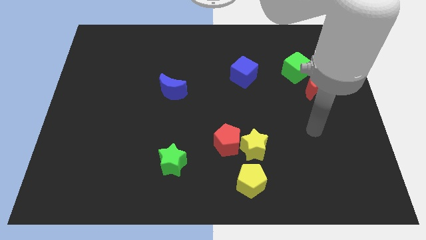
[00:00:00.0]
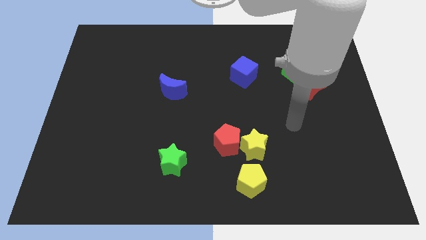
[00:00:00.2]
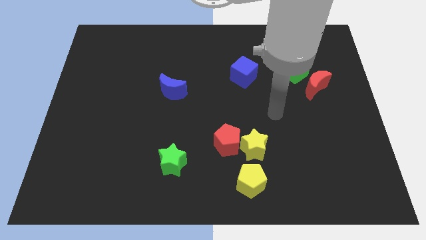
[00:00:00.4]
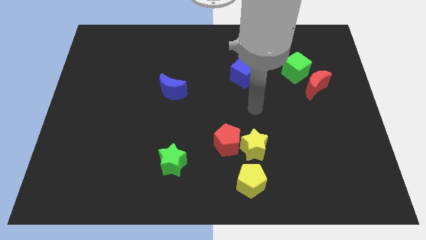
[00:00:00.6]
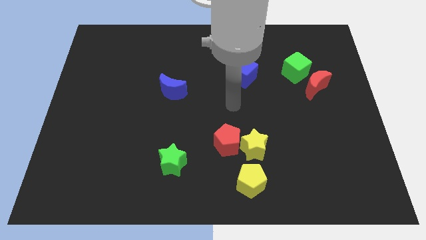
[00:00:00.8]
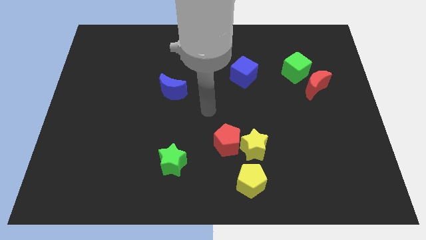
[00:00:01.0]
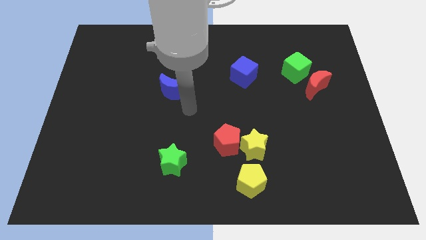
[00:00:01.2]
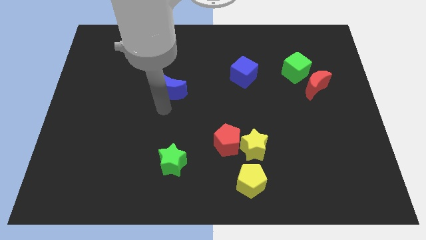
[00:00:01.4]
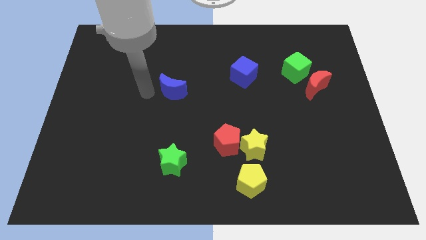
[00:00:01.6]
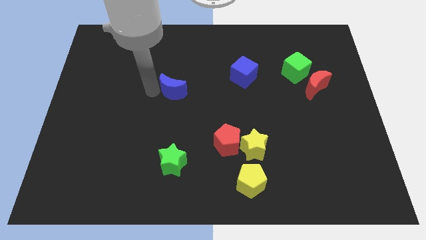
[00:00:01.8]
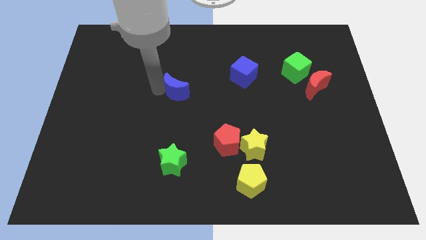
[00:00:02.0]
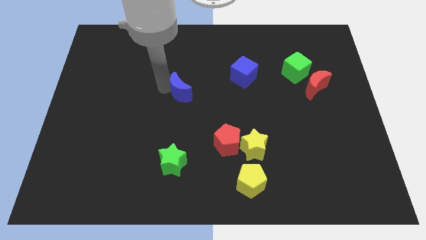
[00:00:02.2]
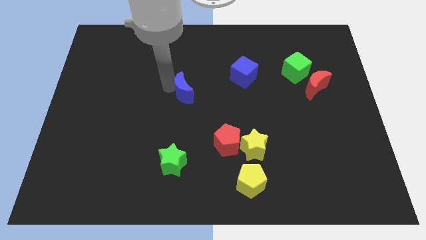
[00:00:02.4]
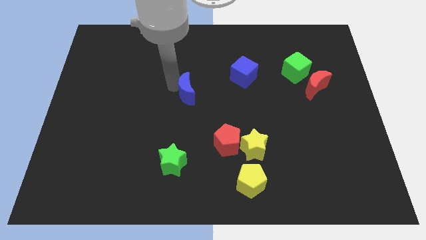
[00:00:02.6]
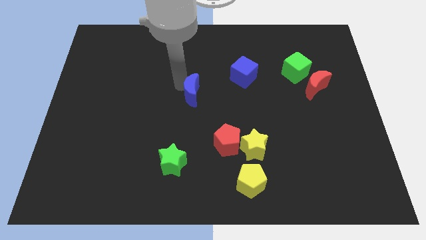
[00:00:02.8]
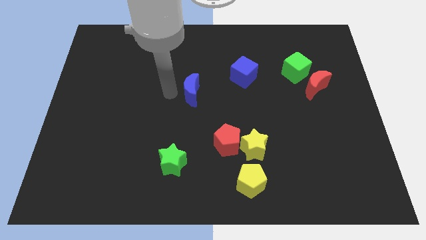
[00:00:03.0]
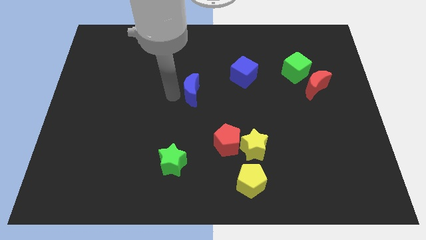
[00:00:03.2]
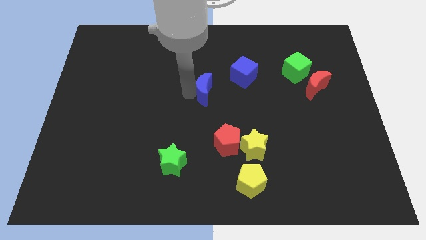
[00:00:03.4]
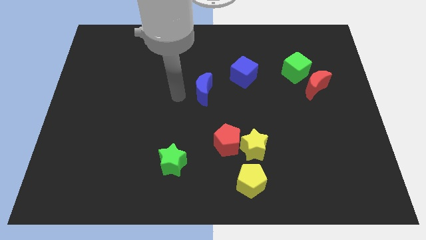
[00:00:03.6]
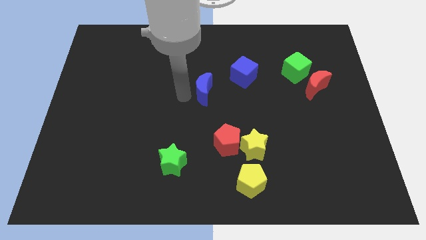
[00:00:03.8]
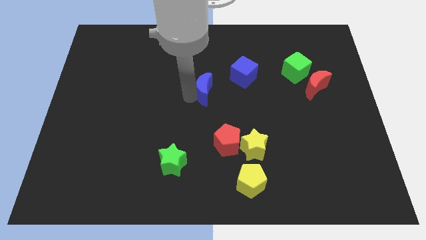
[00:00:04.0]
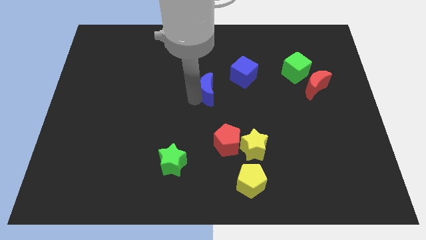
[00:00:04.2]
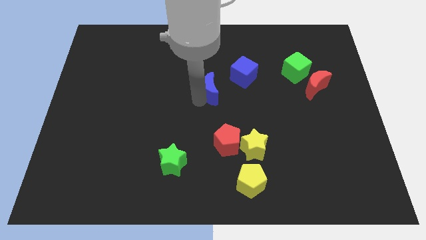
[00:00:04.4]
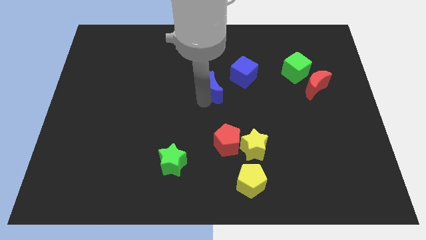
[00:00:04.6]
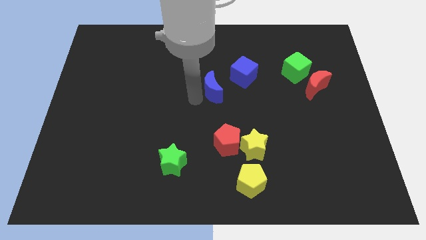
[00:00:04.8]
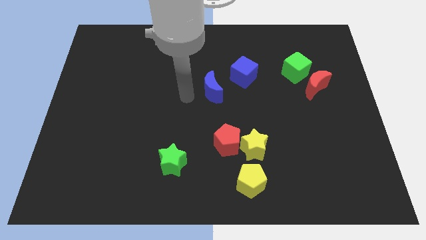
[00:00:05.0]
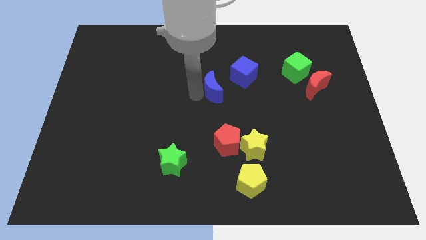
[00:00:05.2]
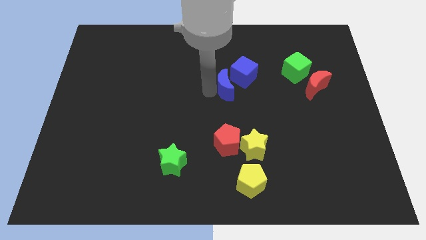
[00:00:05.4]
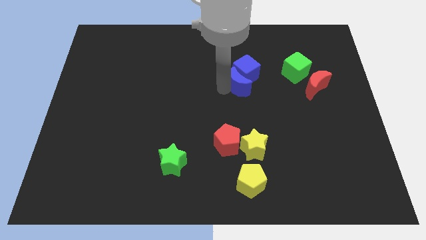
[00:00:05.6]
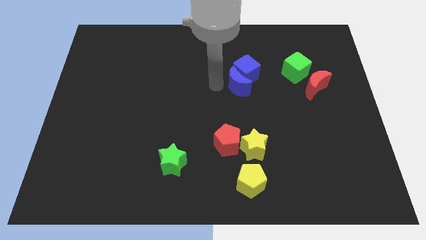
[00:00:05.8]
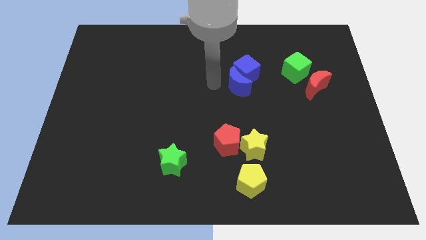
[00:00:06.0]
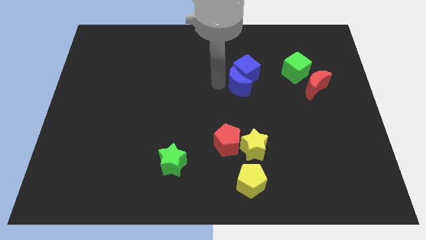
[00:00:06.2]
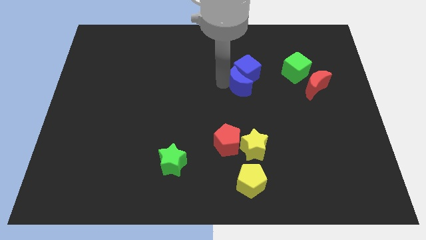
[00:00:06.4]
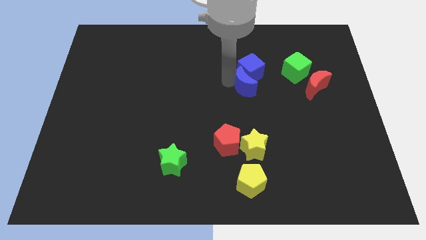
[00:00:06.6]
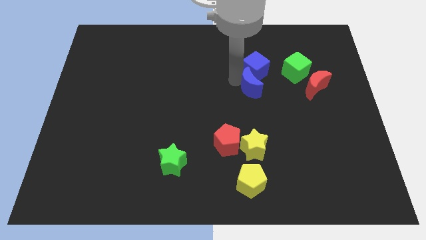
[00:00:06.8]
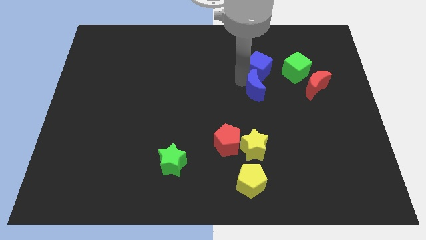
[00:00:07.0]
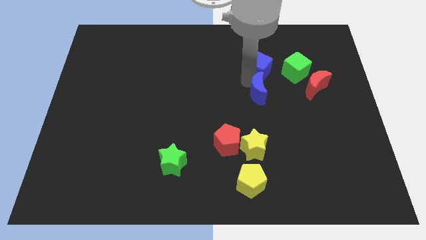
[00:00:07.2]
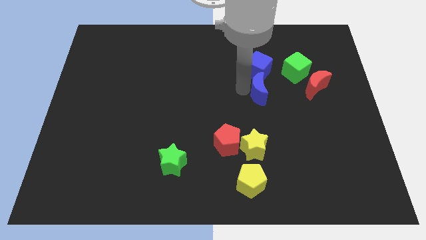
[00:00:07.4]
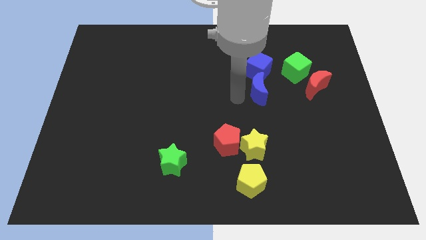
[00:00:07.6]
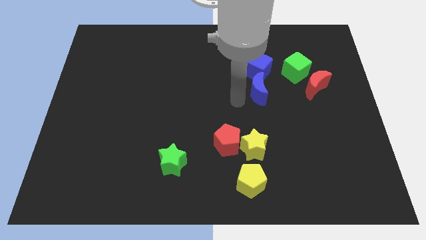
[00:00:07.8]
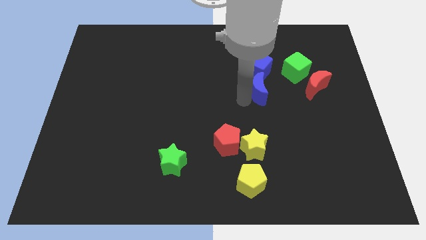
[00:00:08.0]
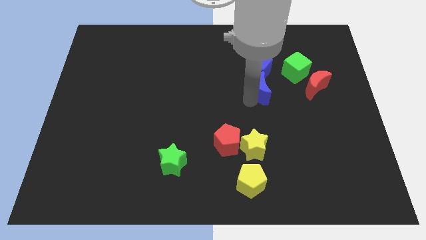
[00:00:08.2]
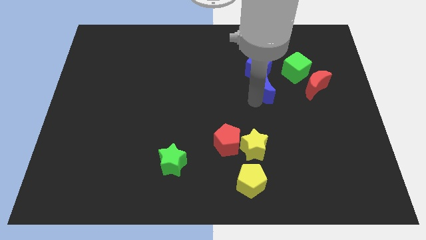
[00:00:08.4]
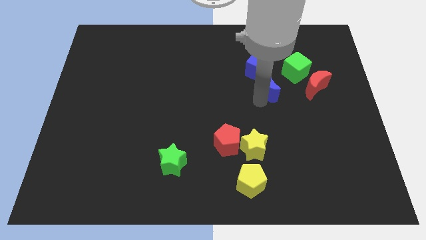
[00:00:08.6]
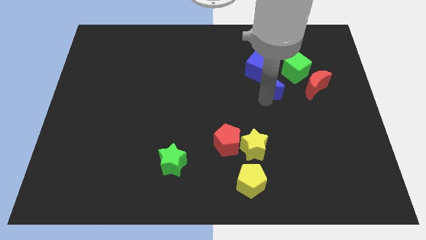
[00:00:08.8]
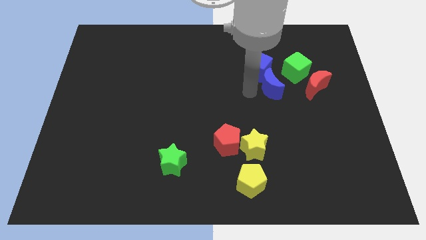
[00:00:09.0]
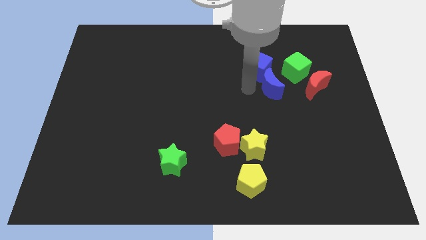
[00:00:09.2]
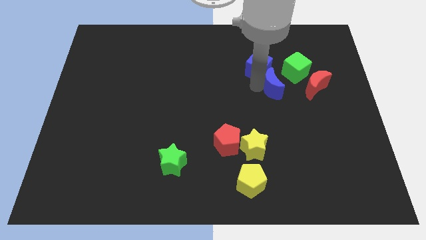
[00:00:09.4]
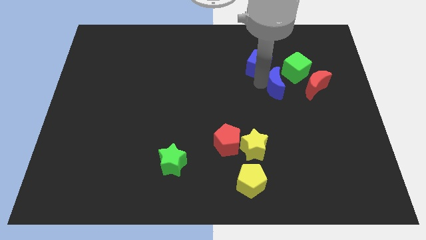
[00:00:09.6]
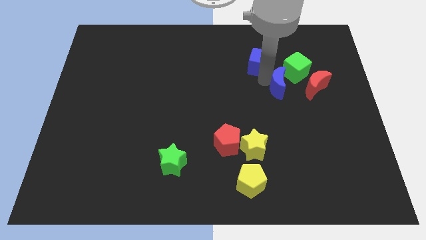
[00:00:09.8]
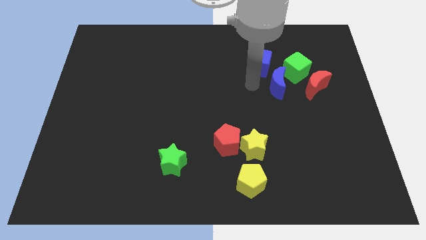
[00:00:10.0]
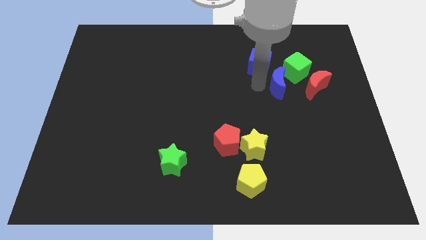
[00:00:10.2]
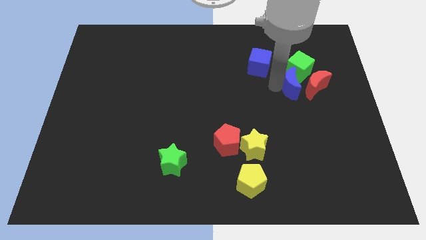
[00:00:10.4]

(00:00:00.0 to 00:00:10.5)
move the blue moon to the red moon

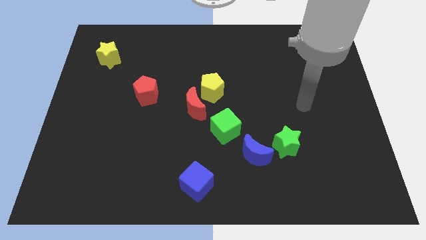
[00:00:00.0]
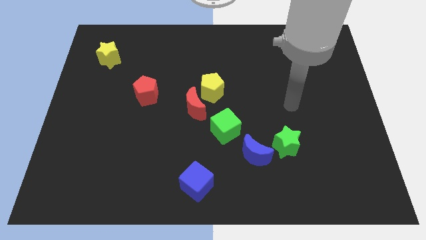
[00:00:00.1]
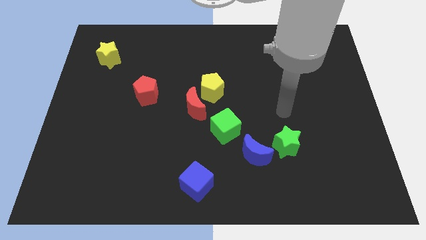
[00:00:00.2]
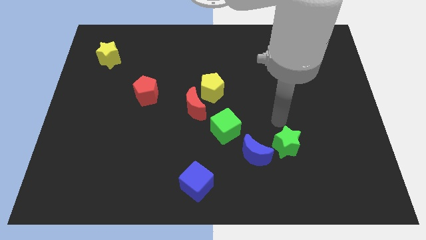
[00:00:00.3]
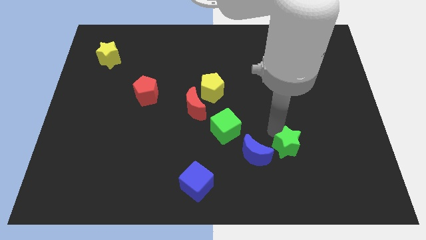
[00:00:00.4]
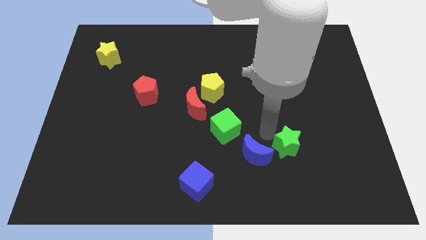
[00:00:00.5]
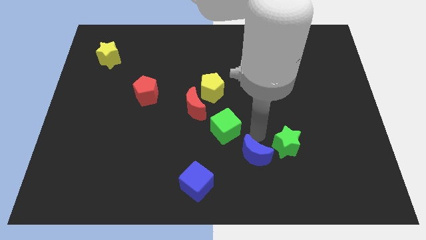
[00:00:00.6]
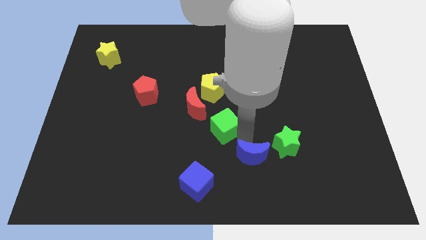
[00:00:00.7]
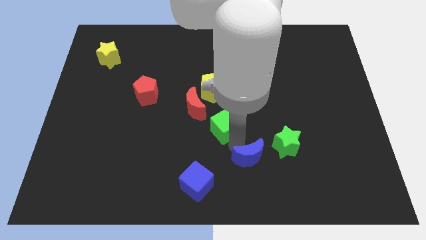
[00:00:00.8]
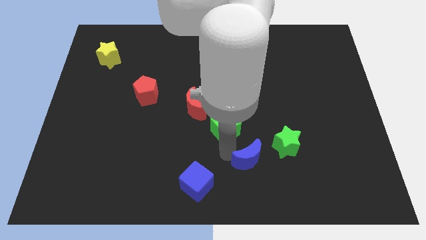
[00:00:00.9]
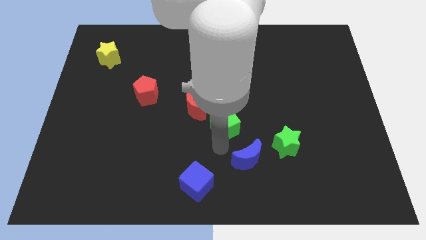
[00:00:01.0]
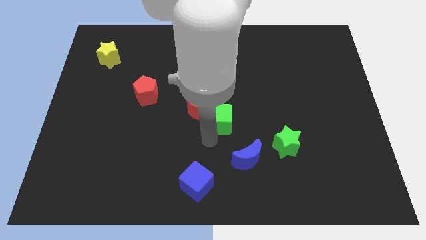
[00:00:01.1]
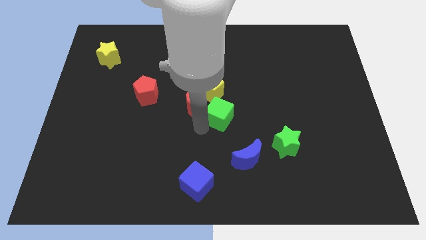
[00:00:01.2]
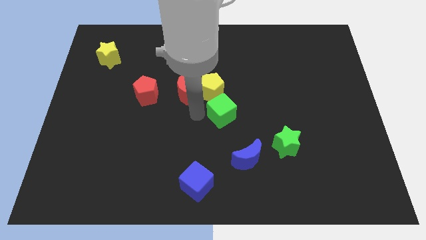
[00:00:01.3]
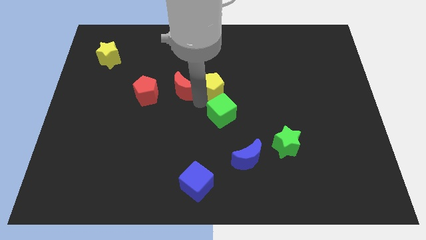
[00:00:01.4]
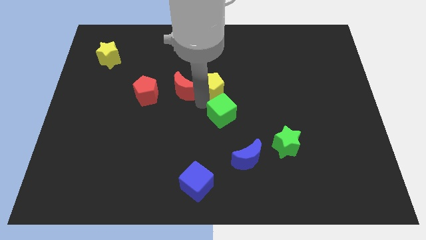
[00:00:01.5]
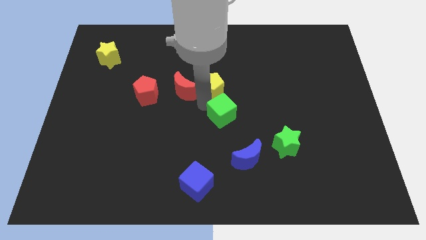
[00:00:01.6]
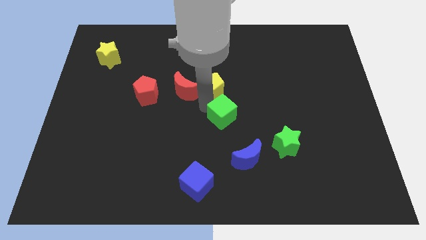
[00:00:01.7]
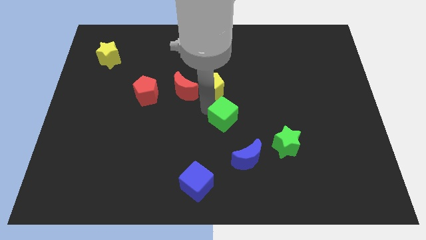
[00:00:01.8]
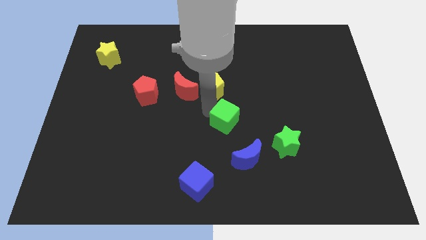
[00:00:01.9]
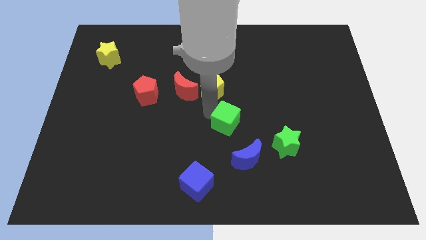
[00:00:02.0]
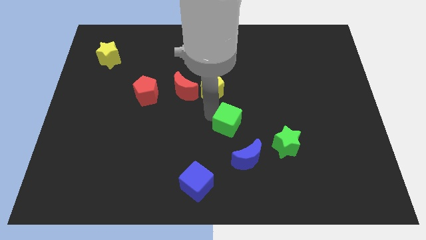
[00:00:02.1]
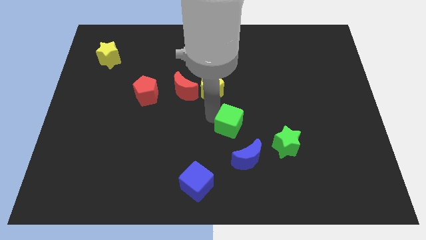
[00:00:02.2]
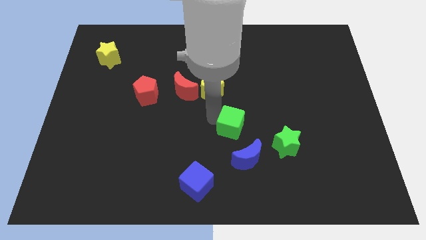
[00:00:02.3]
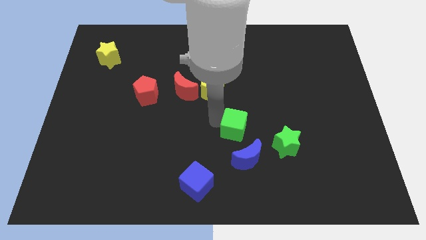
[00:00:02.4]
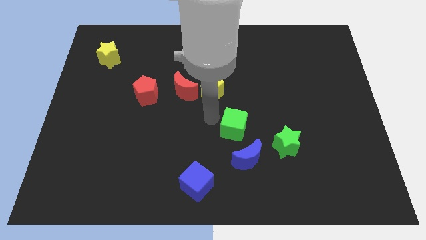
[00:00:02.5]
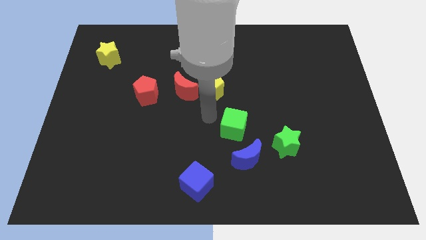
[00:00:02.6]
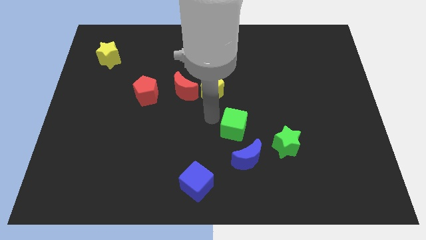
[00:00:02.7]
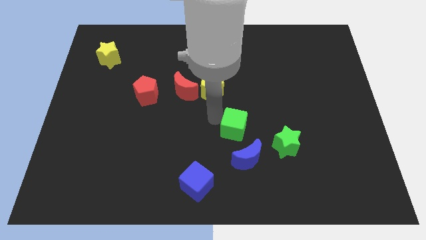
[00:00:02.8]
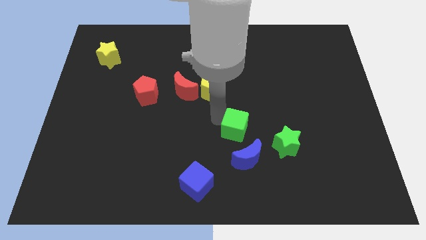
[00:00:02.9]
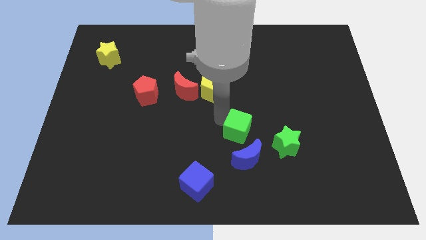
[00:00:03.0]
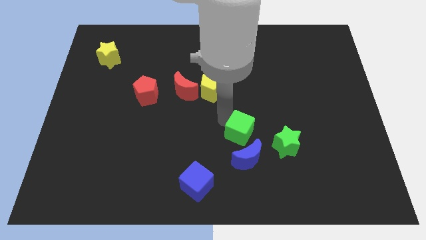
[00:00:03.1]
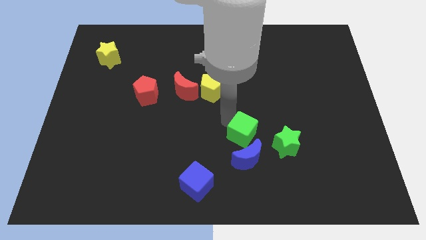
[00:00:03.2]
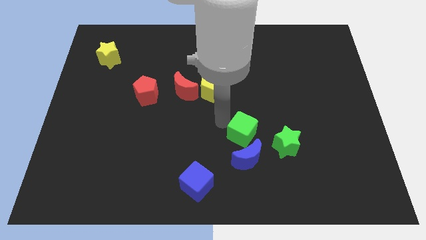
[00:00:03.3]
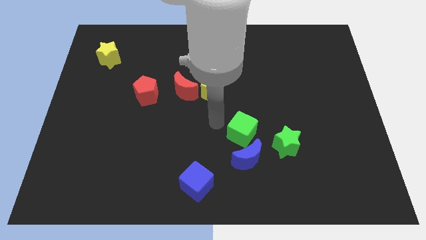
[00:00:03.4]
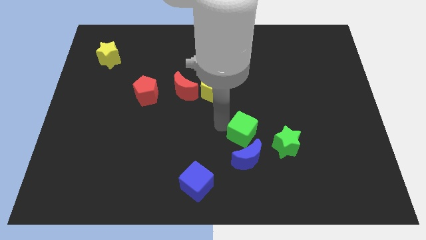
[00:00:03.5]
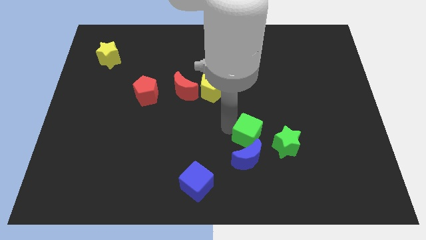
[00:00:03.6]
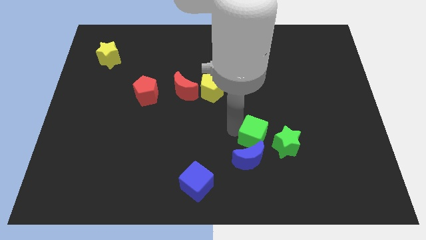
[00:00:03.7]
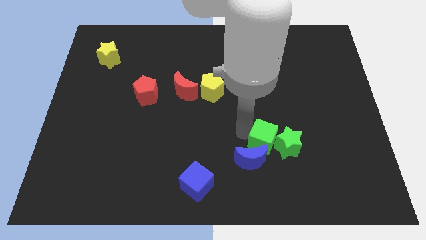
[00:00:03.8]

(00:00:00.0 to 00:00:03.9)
put the green cube next to the green star
